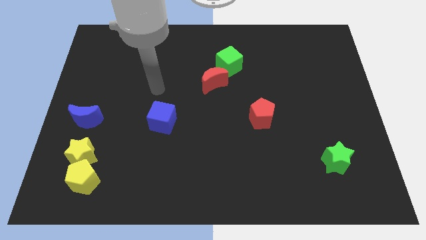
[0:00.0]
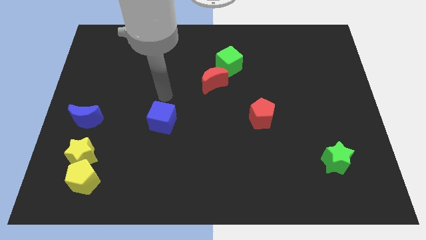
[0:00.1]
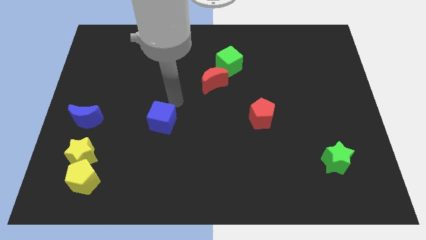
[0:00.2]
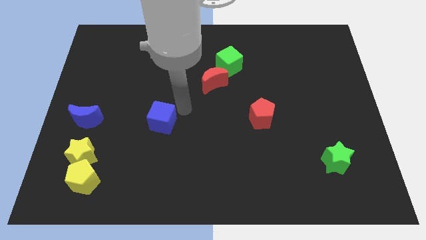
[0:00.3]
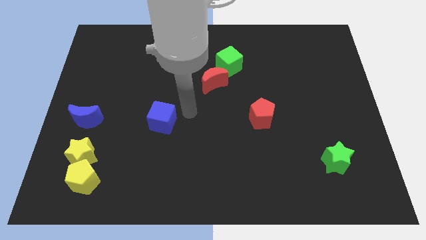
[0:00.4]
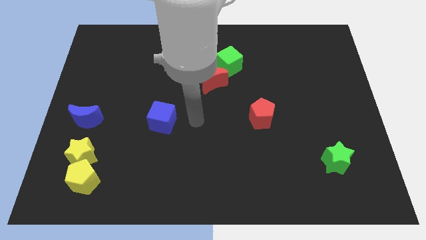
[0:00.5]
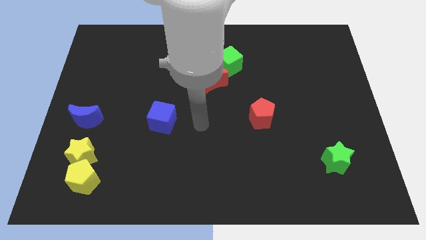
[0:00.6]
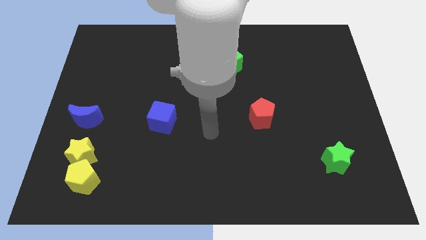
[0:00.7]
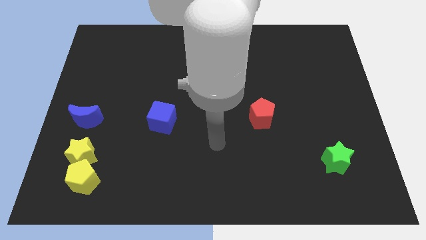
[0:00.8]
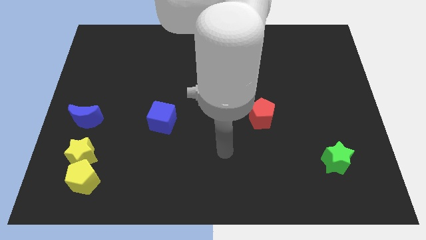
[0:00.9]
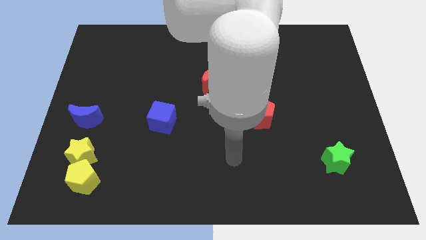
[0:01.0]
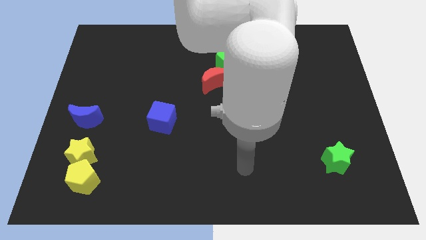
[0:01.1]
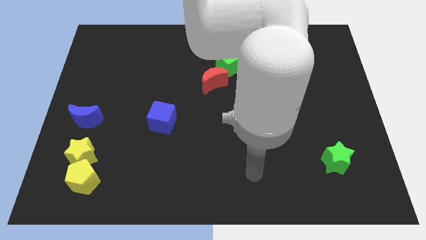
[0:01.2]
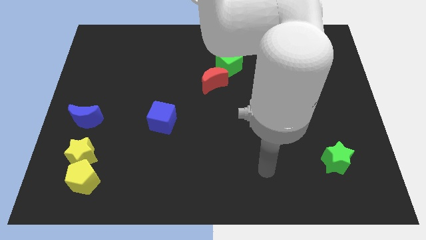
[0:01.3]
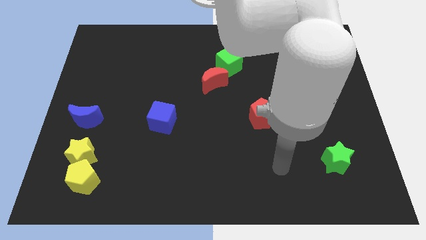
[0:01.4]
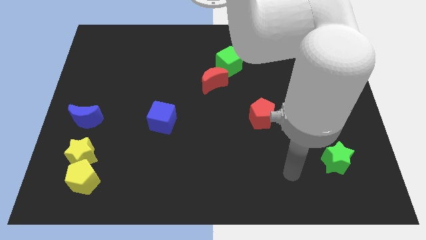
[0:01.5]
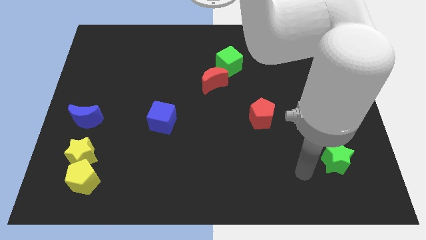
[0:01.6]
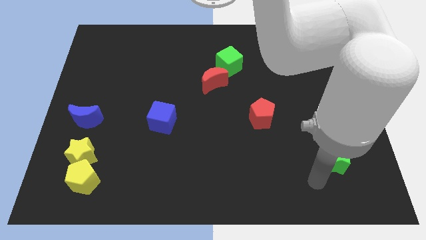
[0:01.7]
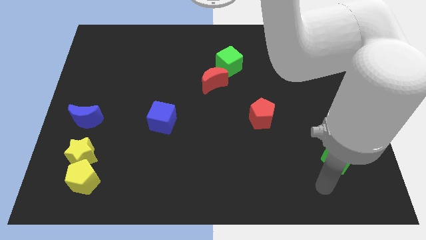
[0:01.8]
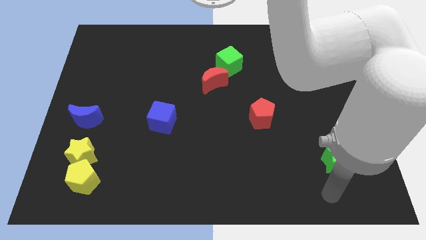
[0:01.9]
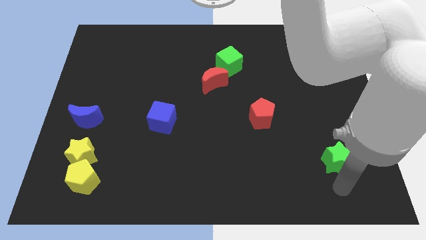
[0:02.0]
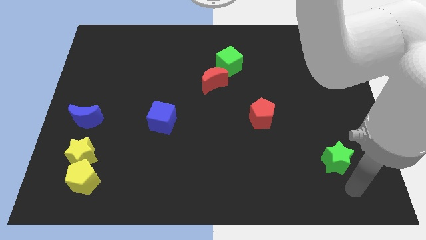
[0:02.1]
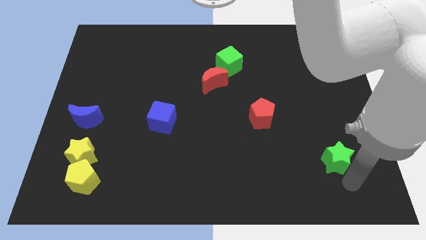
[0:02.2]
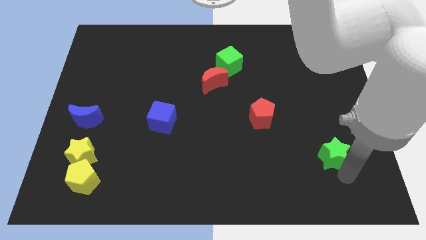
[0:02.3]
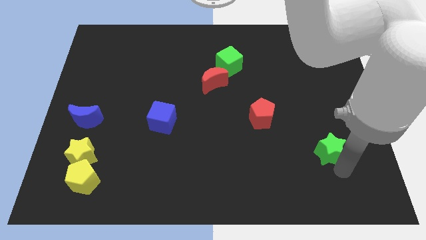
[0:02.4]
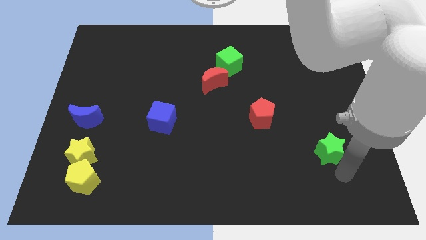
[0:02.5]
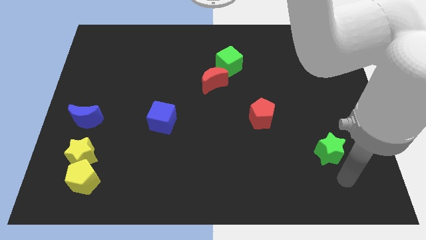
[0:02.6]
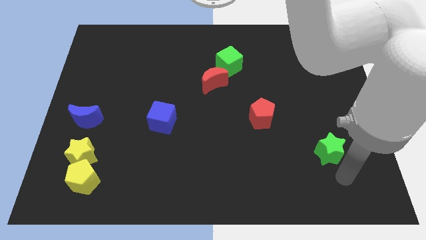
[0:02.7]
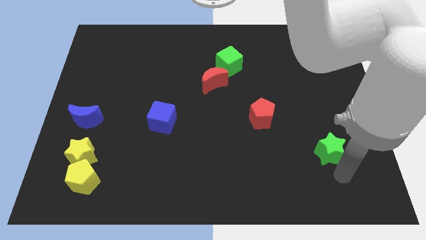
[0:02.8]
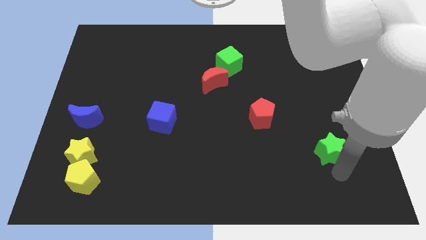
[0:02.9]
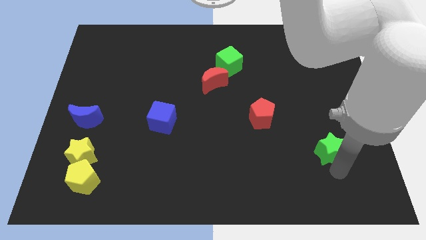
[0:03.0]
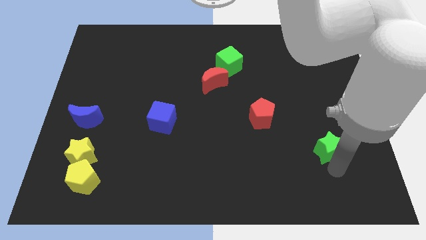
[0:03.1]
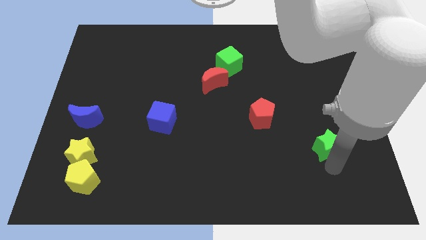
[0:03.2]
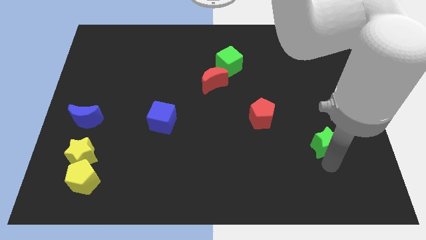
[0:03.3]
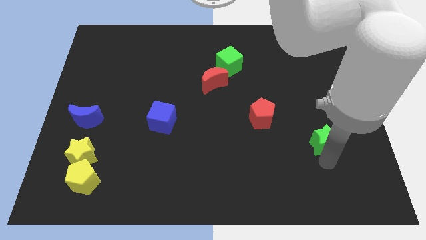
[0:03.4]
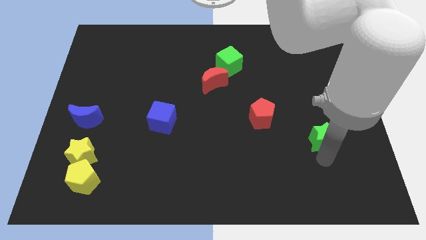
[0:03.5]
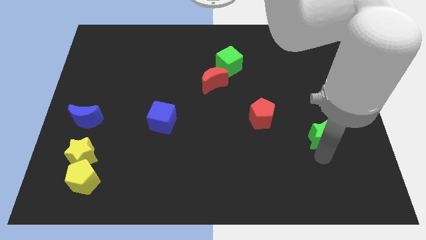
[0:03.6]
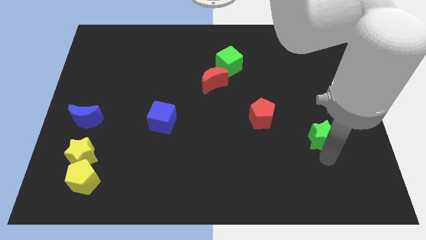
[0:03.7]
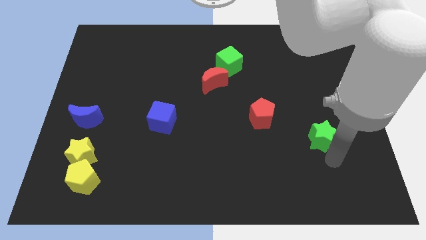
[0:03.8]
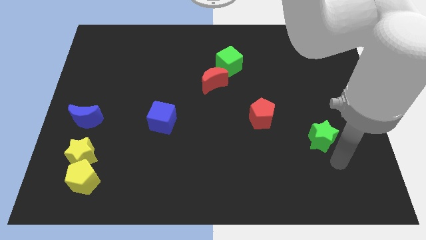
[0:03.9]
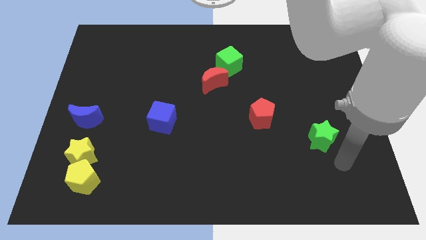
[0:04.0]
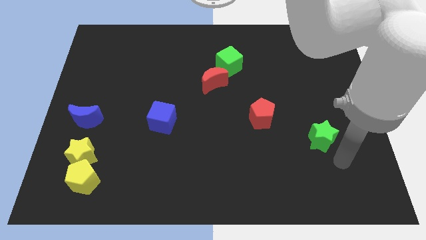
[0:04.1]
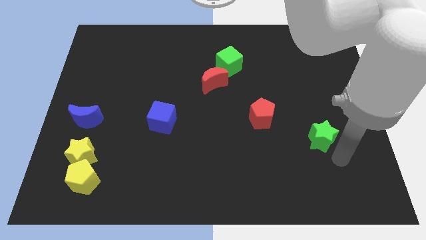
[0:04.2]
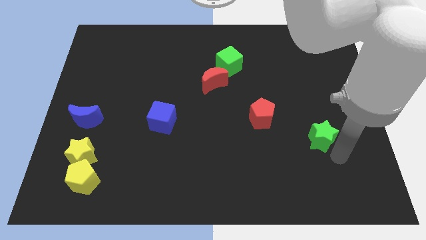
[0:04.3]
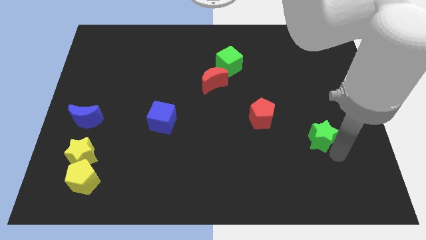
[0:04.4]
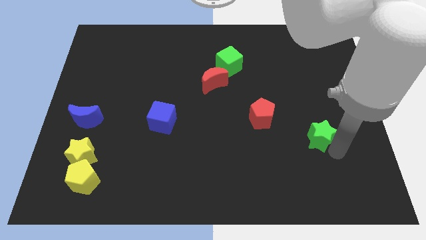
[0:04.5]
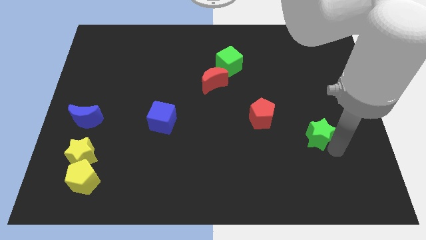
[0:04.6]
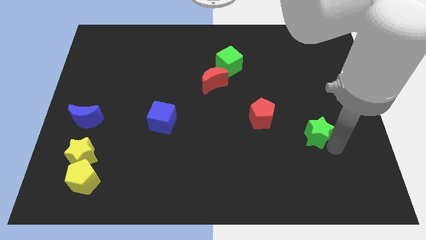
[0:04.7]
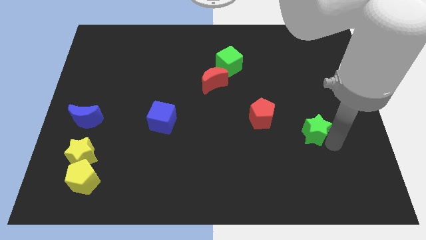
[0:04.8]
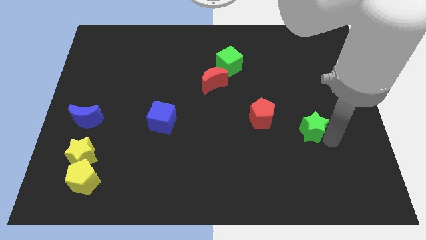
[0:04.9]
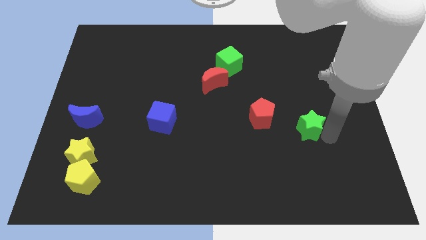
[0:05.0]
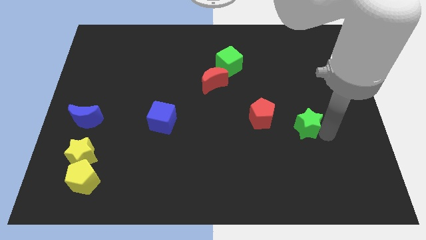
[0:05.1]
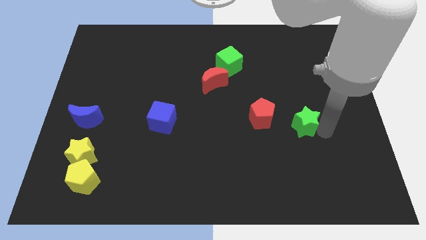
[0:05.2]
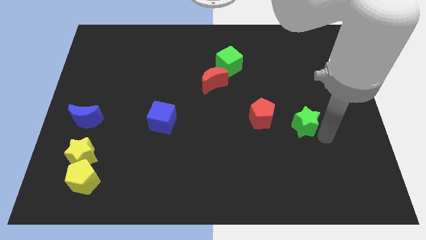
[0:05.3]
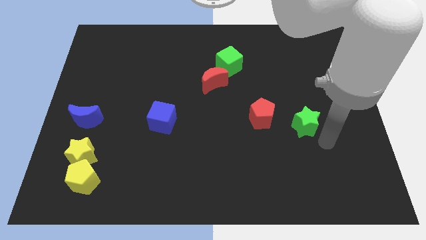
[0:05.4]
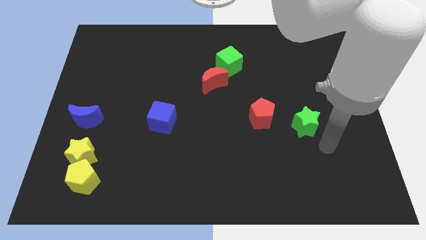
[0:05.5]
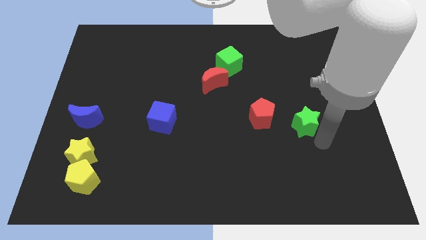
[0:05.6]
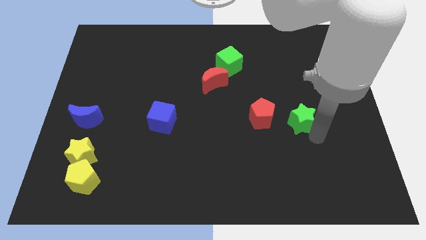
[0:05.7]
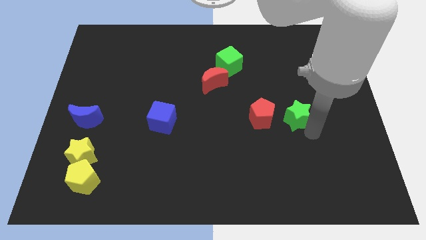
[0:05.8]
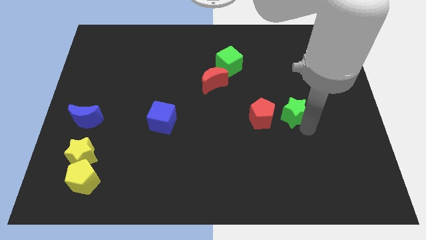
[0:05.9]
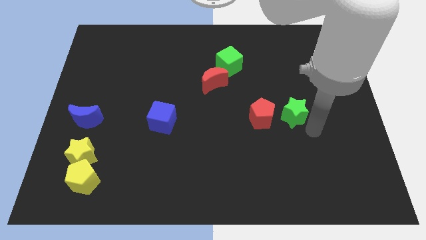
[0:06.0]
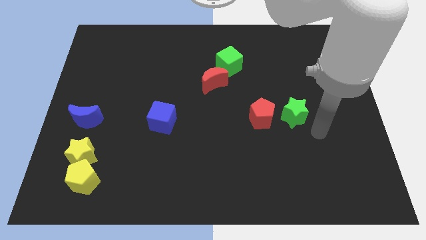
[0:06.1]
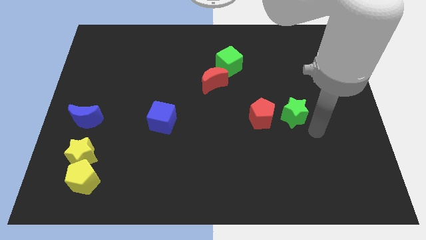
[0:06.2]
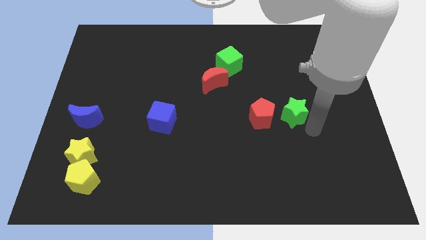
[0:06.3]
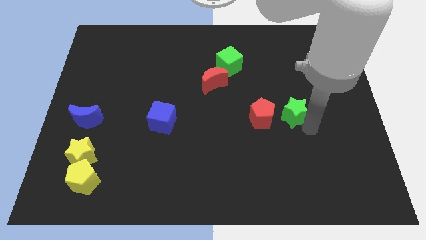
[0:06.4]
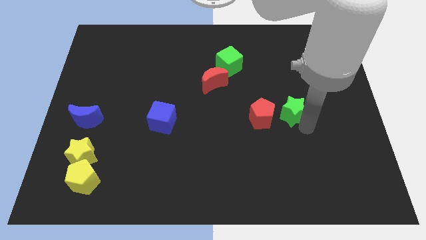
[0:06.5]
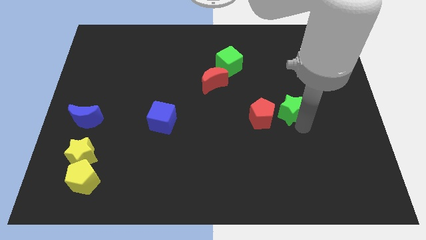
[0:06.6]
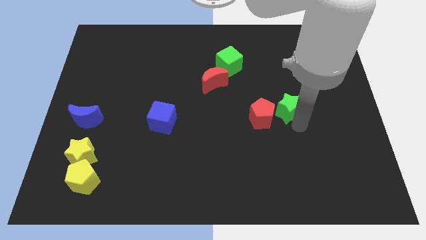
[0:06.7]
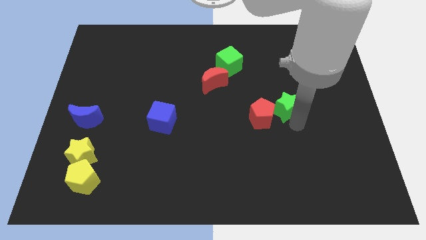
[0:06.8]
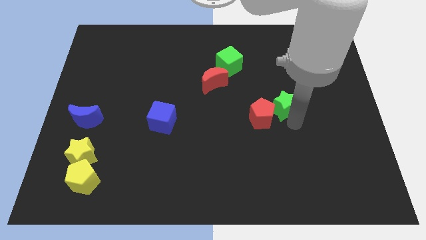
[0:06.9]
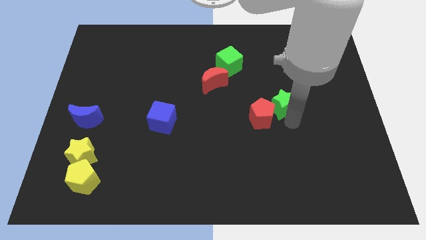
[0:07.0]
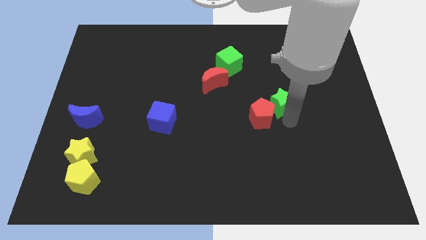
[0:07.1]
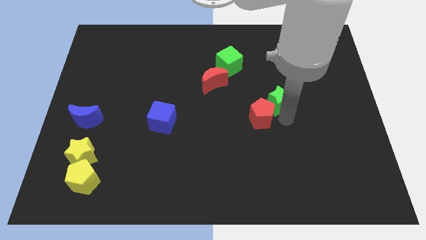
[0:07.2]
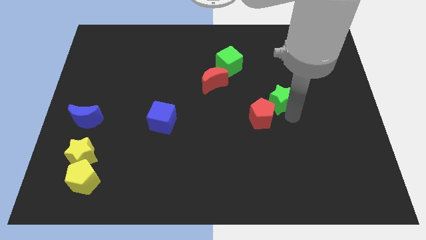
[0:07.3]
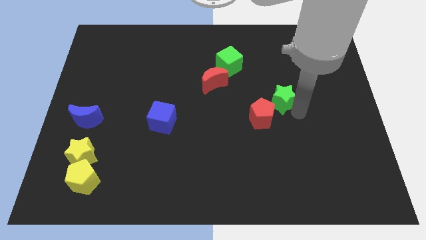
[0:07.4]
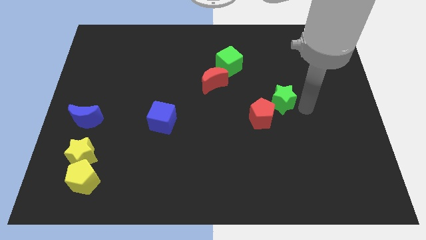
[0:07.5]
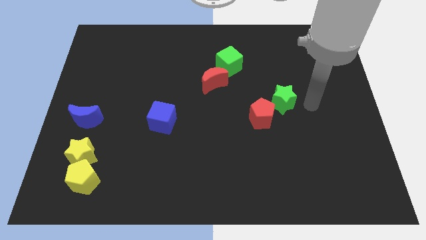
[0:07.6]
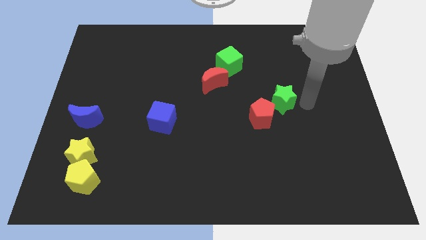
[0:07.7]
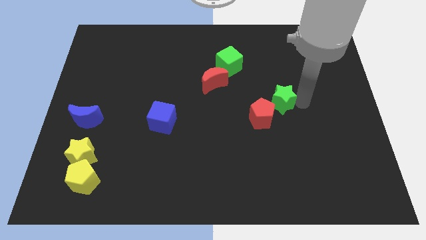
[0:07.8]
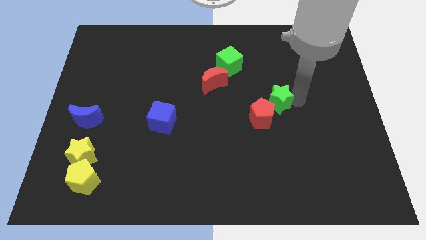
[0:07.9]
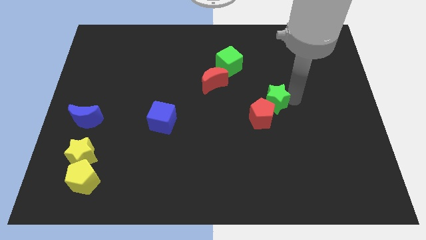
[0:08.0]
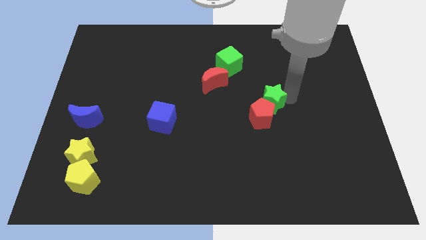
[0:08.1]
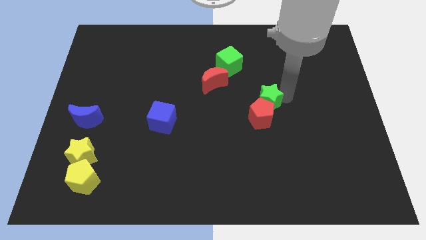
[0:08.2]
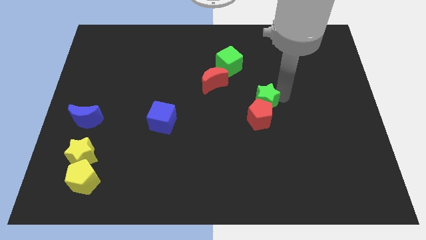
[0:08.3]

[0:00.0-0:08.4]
put the green star diagonally up and to the left of the red pentagon

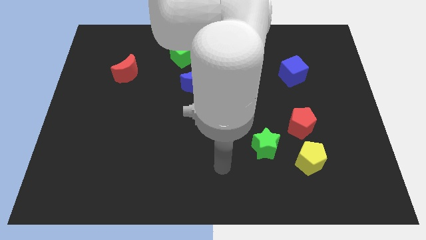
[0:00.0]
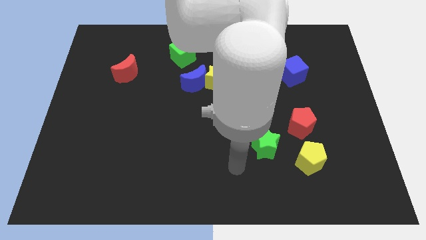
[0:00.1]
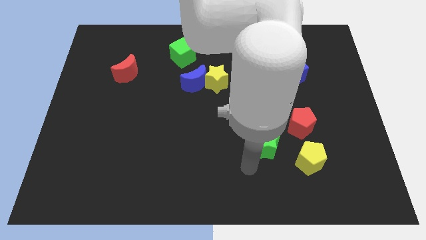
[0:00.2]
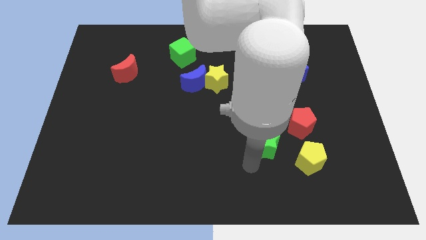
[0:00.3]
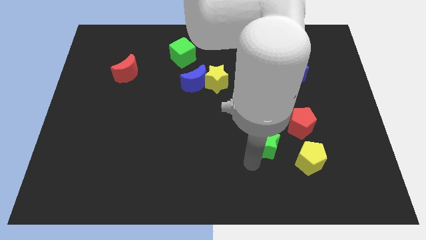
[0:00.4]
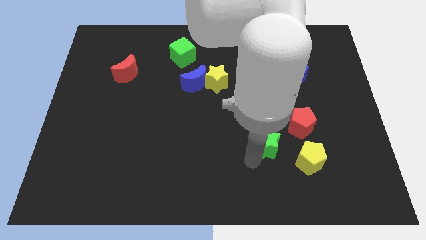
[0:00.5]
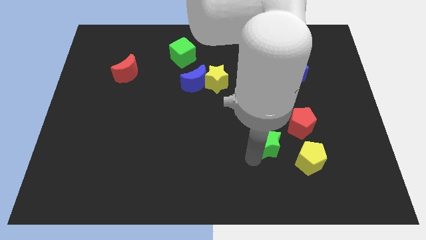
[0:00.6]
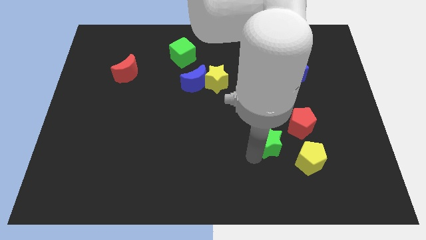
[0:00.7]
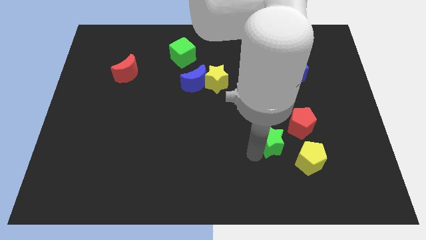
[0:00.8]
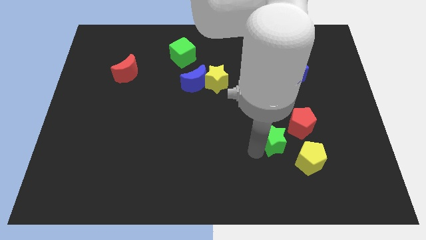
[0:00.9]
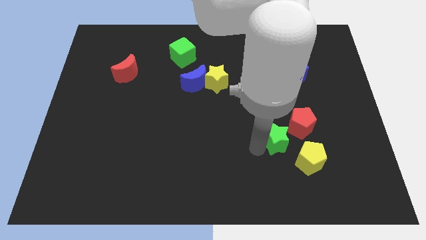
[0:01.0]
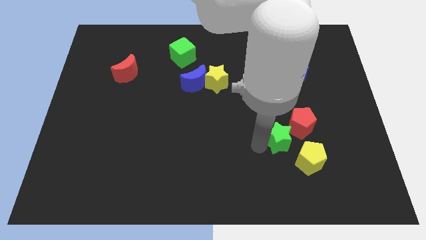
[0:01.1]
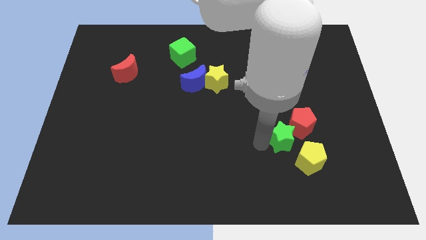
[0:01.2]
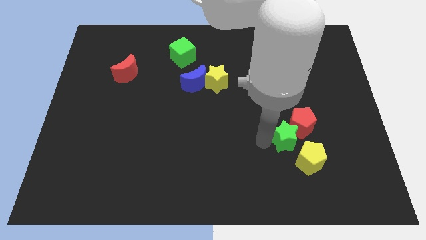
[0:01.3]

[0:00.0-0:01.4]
move the green star to the top of the yellow pentagon
